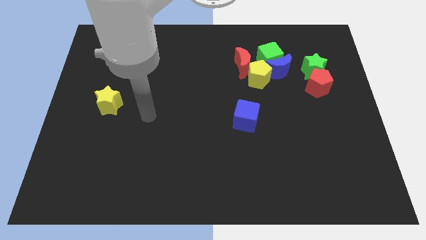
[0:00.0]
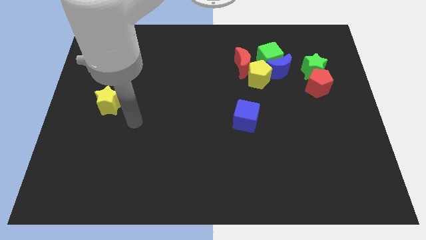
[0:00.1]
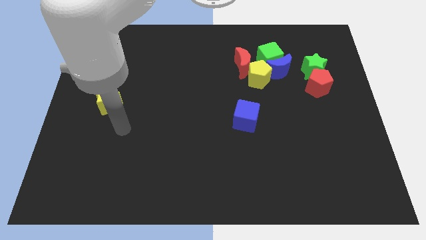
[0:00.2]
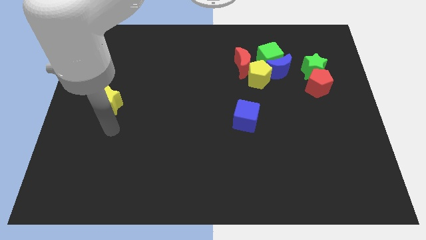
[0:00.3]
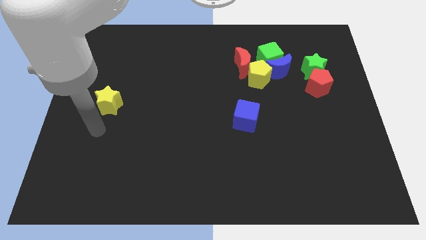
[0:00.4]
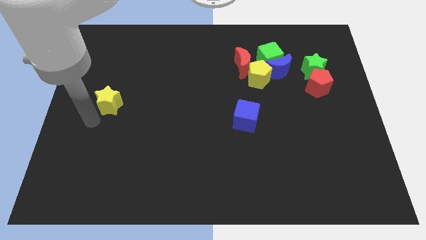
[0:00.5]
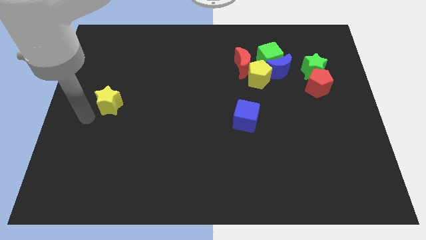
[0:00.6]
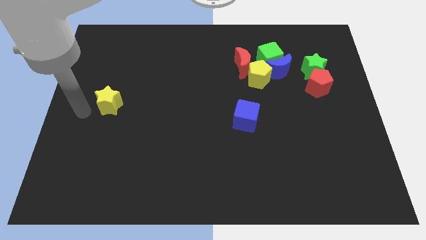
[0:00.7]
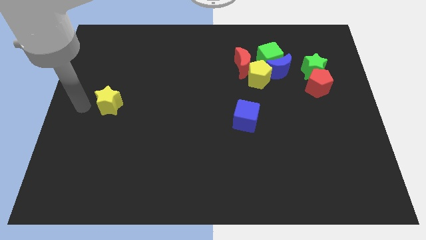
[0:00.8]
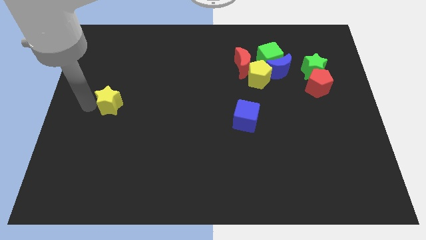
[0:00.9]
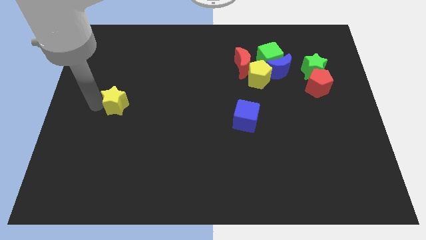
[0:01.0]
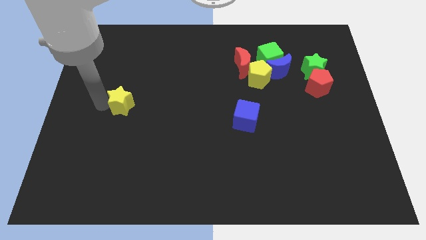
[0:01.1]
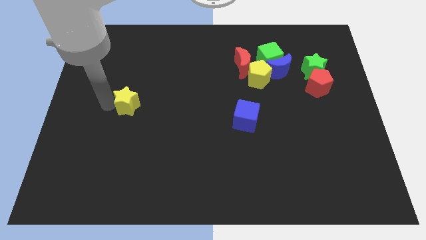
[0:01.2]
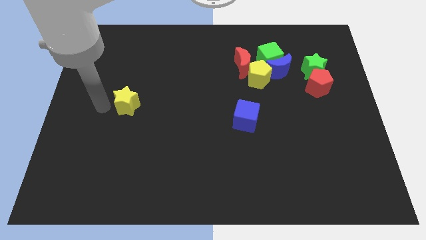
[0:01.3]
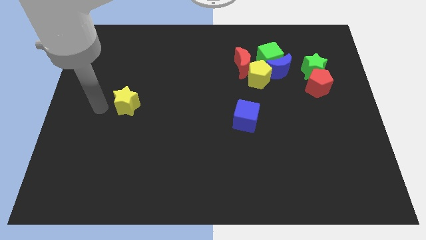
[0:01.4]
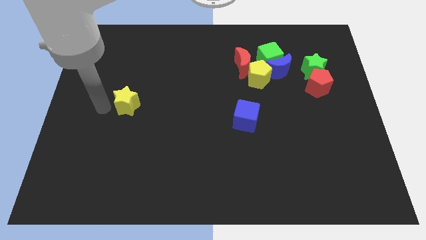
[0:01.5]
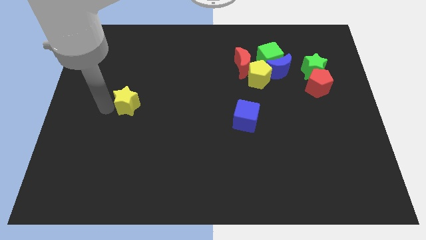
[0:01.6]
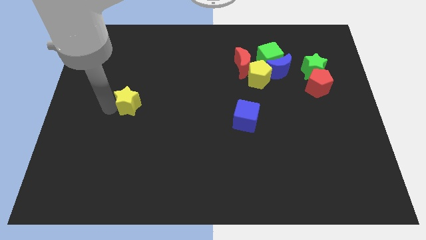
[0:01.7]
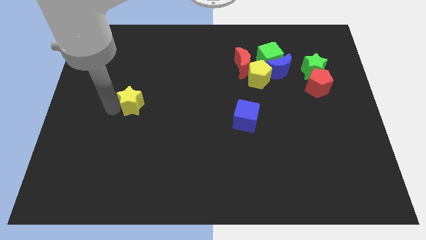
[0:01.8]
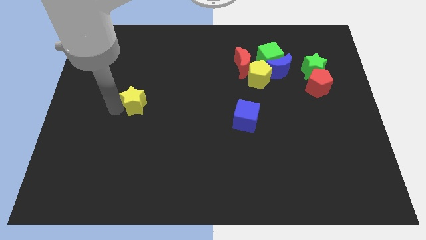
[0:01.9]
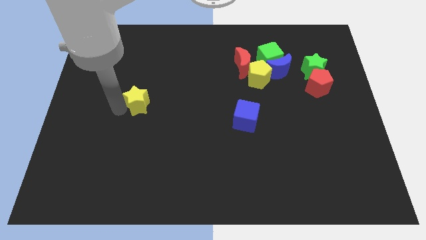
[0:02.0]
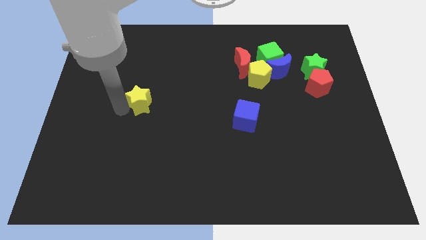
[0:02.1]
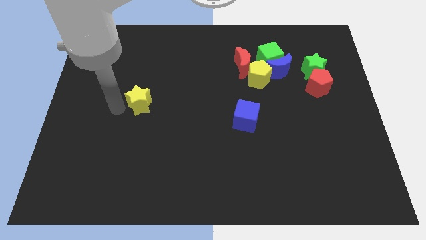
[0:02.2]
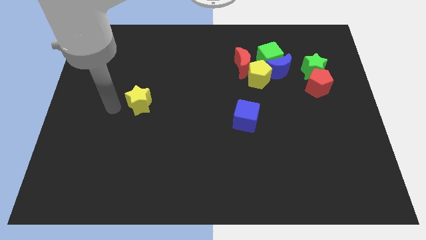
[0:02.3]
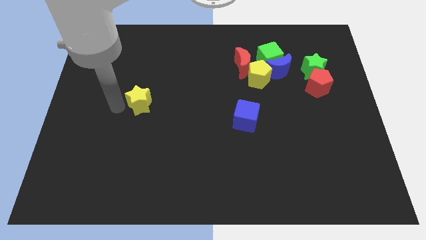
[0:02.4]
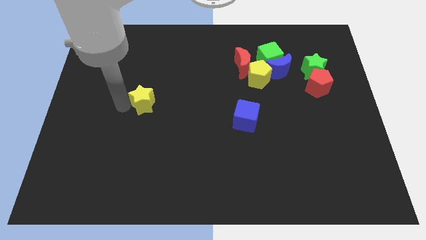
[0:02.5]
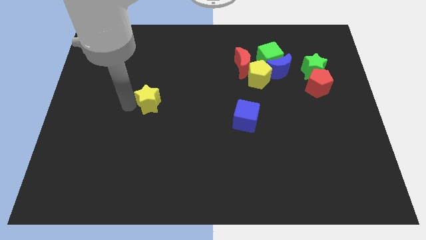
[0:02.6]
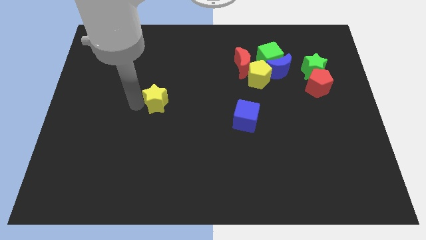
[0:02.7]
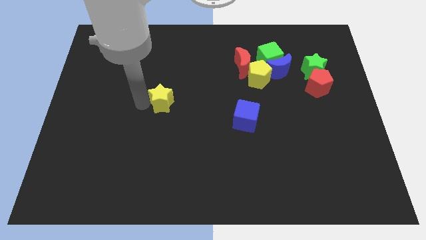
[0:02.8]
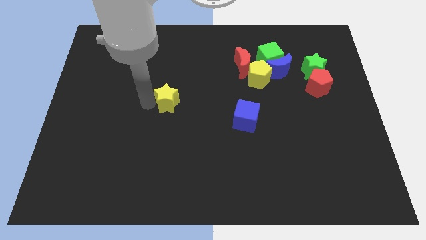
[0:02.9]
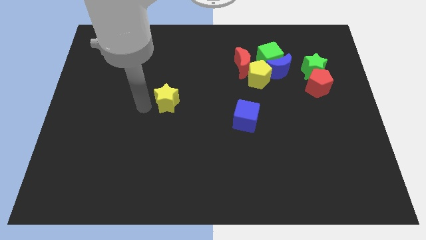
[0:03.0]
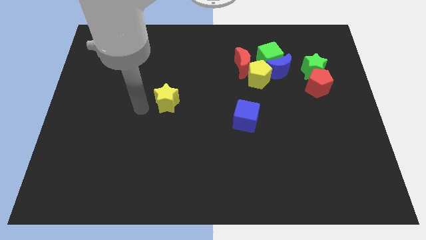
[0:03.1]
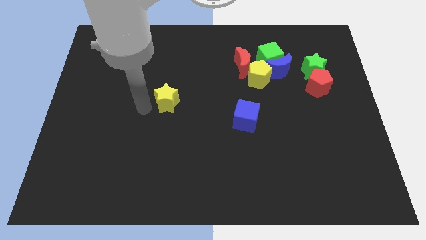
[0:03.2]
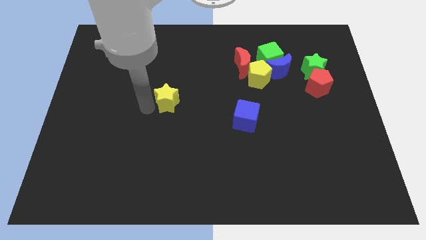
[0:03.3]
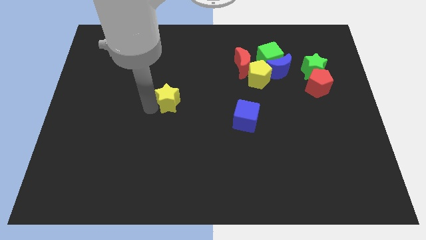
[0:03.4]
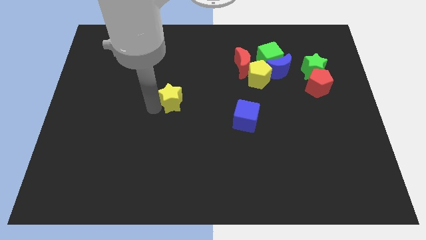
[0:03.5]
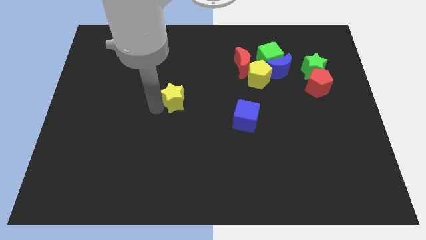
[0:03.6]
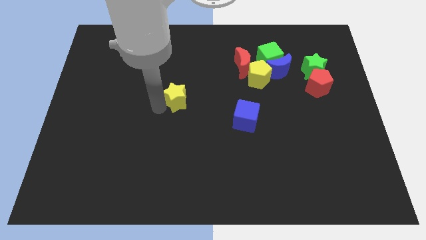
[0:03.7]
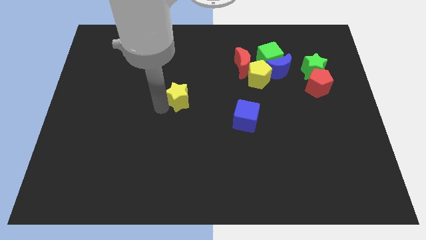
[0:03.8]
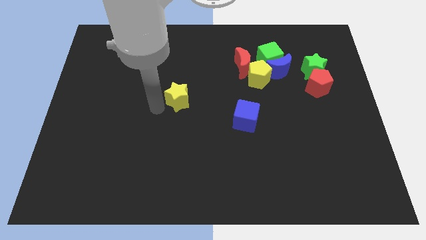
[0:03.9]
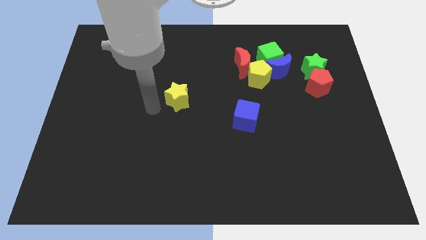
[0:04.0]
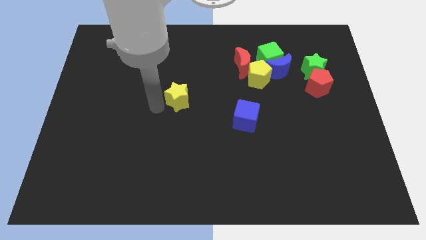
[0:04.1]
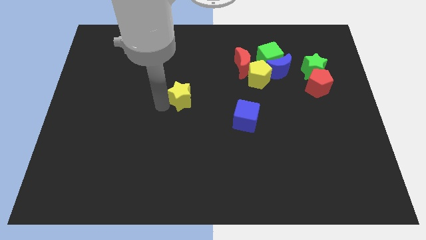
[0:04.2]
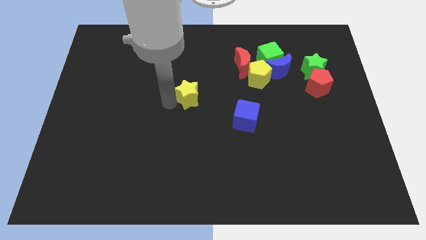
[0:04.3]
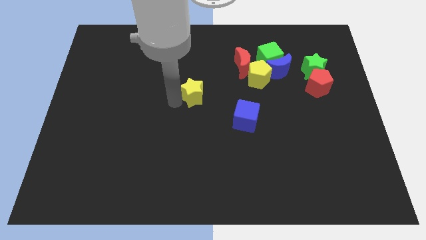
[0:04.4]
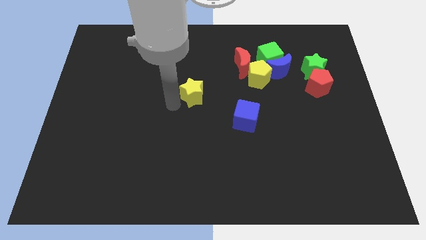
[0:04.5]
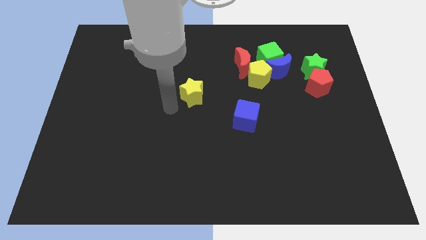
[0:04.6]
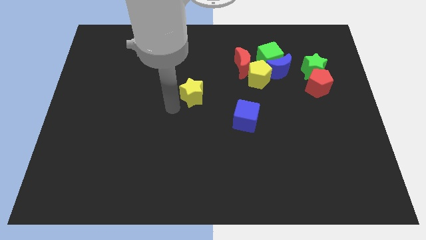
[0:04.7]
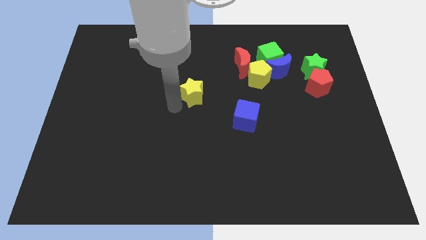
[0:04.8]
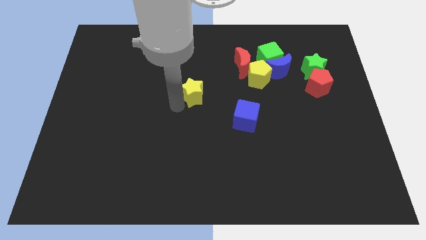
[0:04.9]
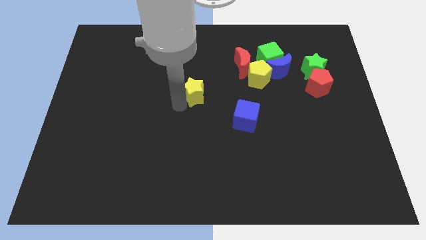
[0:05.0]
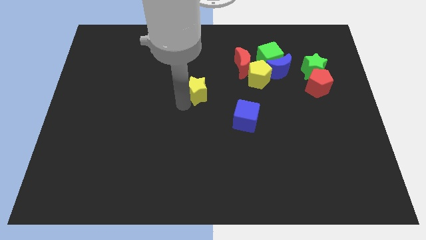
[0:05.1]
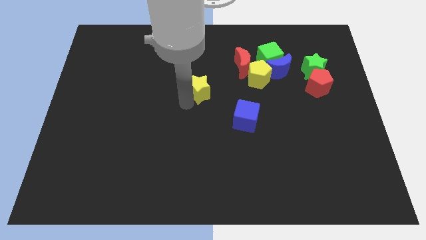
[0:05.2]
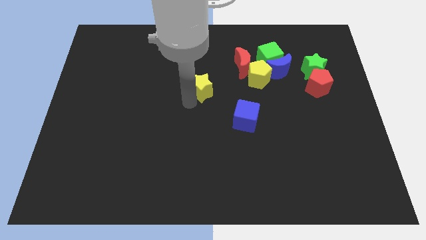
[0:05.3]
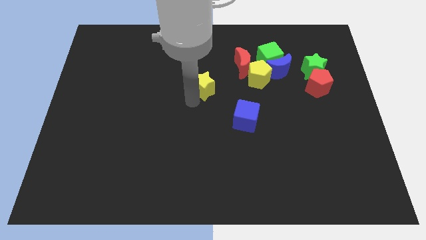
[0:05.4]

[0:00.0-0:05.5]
slide the yellow star to the left of the yellow pentagon

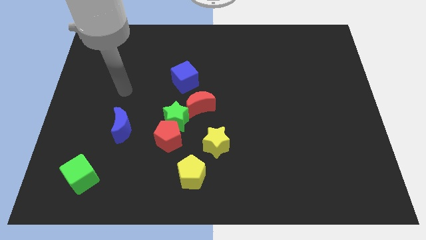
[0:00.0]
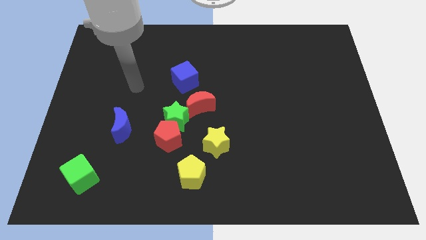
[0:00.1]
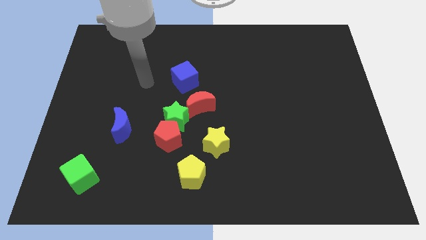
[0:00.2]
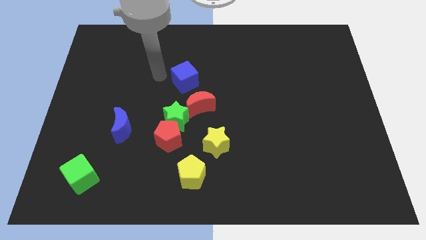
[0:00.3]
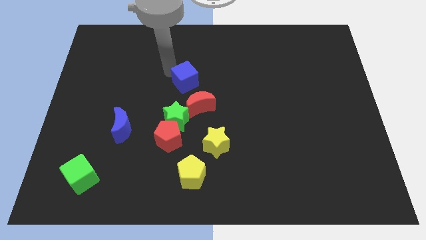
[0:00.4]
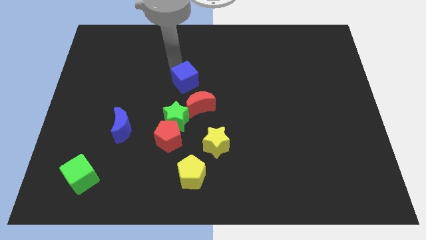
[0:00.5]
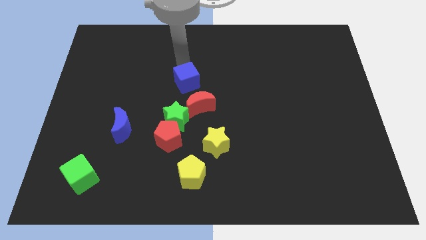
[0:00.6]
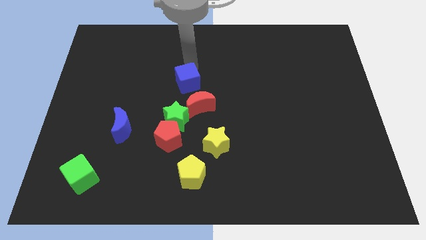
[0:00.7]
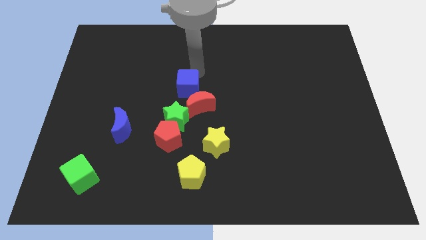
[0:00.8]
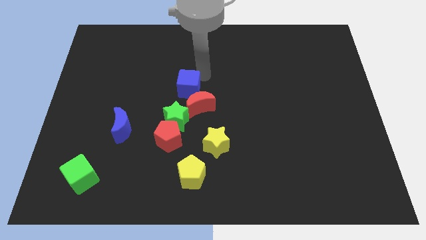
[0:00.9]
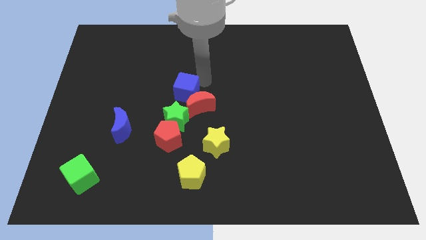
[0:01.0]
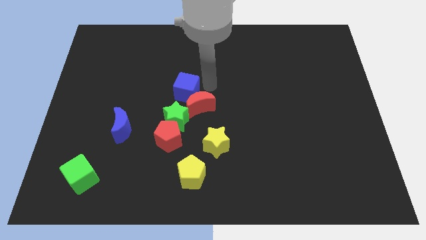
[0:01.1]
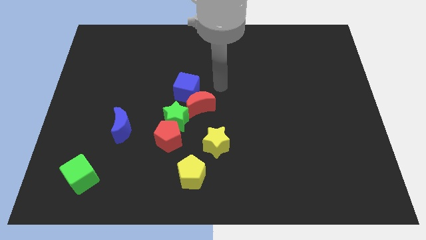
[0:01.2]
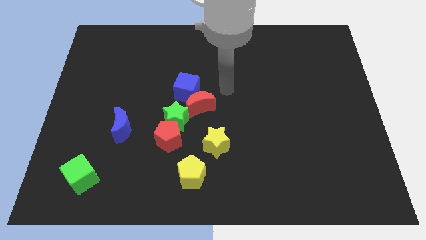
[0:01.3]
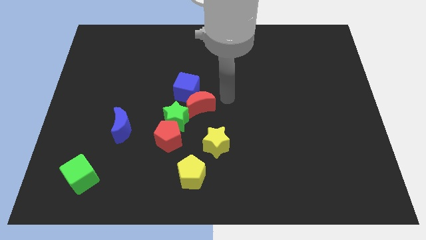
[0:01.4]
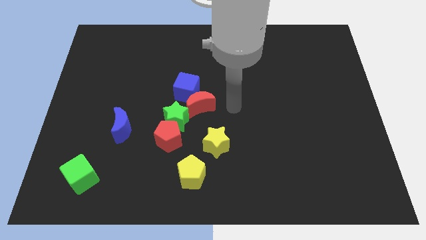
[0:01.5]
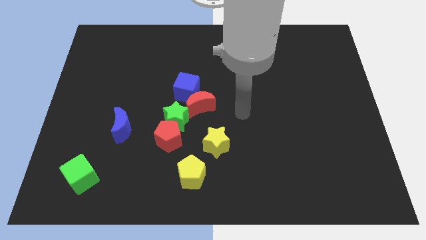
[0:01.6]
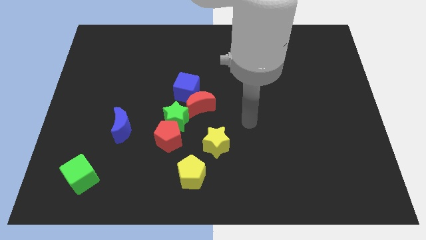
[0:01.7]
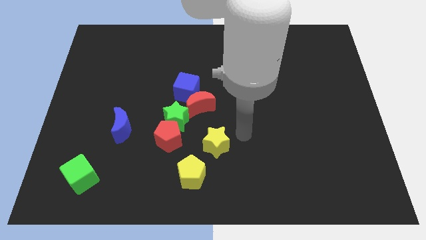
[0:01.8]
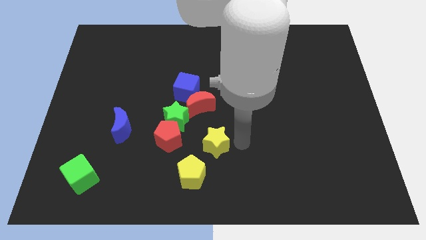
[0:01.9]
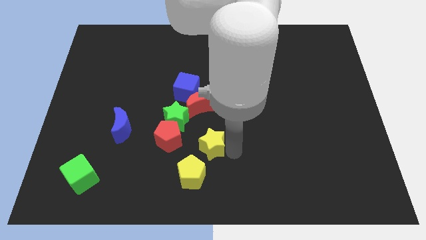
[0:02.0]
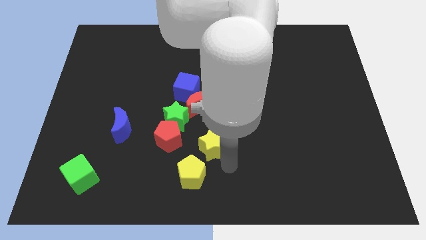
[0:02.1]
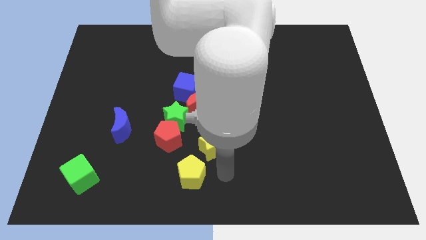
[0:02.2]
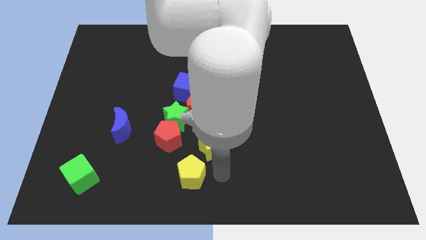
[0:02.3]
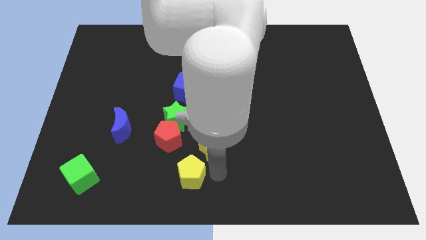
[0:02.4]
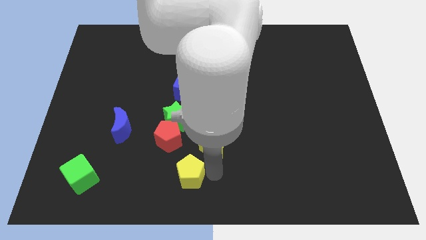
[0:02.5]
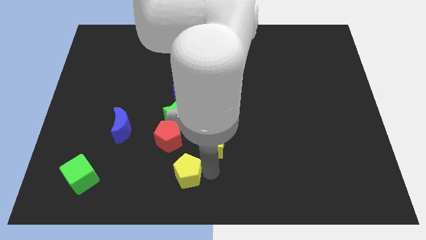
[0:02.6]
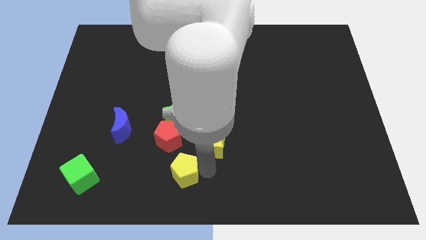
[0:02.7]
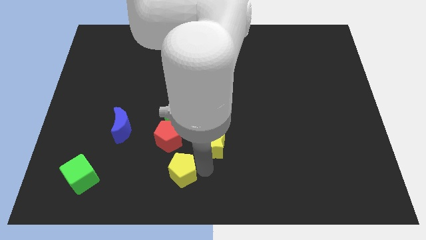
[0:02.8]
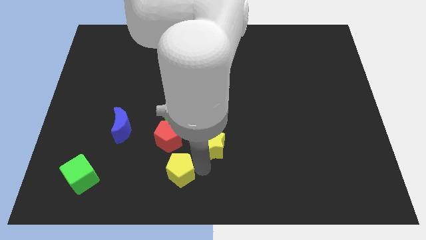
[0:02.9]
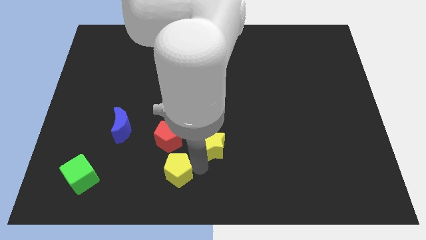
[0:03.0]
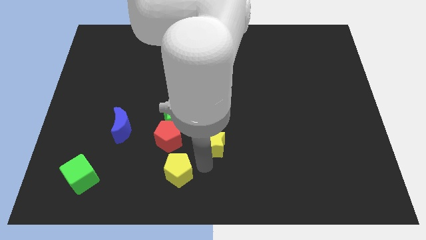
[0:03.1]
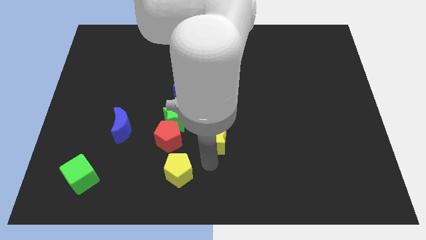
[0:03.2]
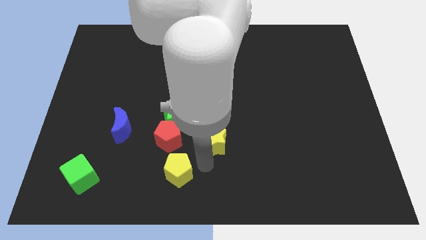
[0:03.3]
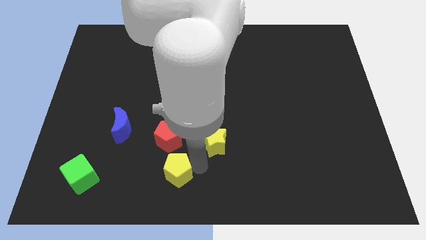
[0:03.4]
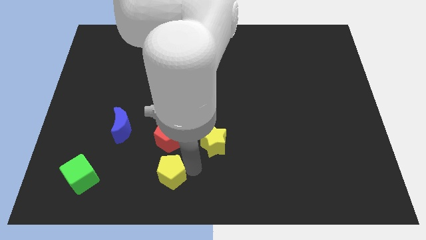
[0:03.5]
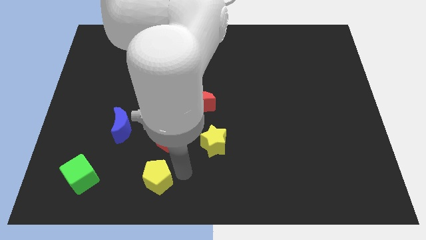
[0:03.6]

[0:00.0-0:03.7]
push the yellow pentagon to the right side of the green cube
